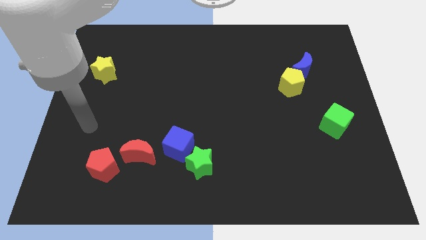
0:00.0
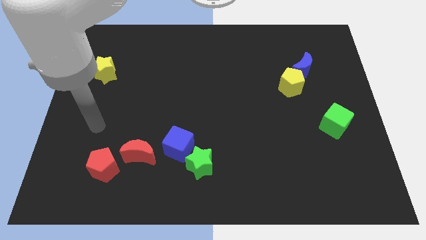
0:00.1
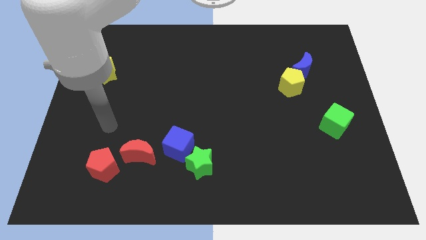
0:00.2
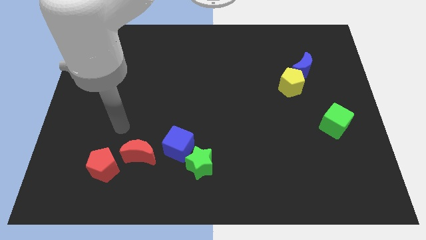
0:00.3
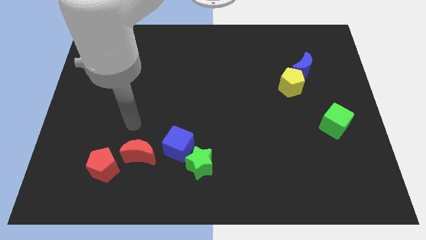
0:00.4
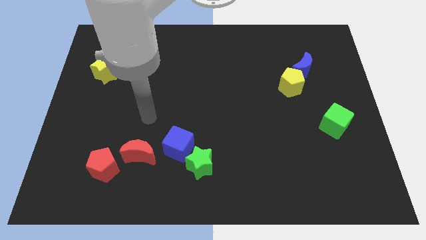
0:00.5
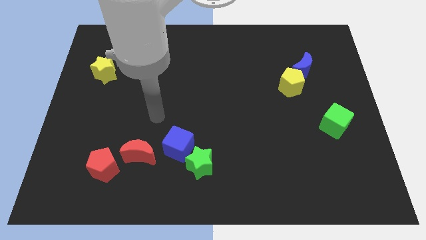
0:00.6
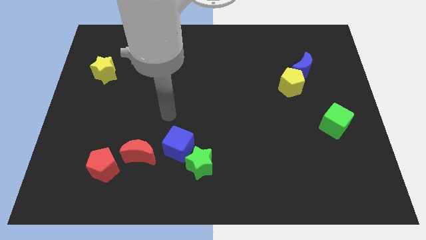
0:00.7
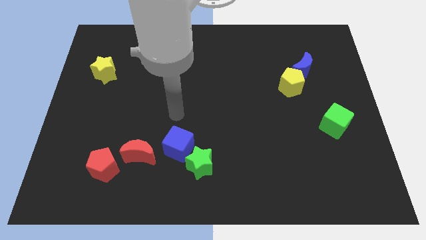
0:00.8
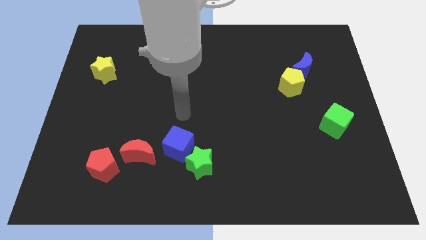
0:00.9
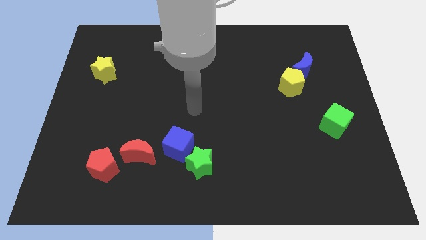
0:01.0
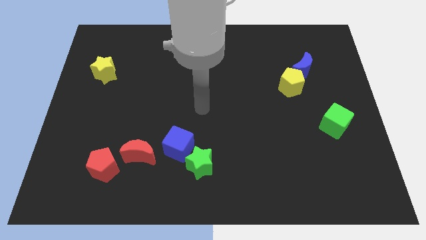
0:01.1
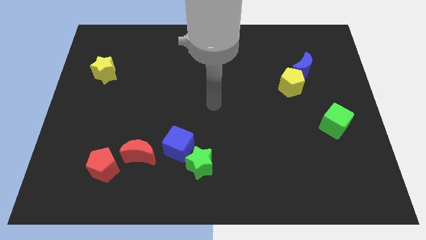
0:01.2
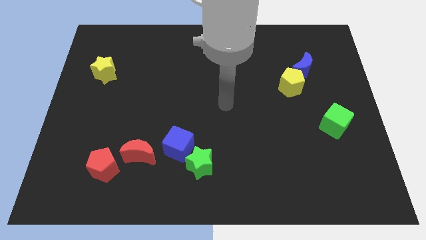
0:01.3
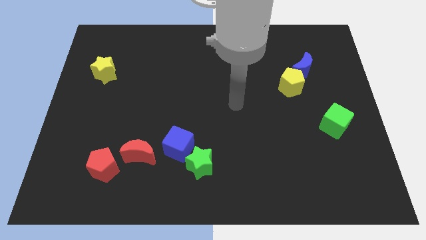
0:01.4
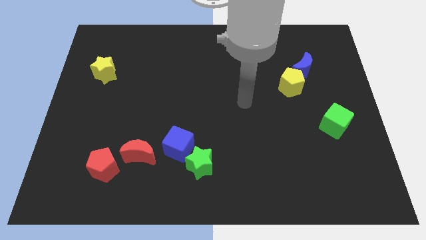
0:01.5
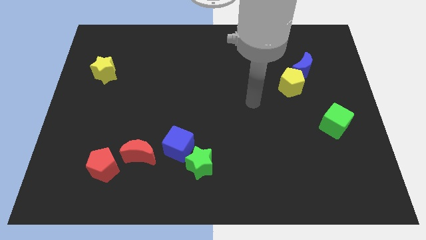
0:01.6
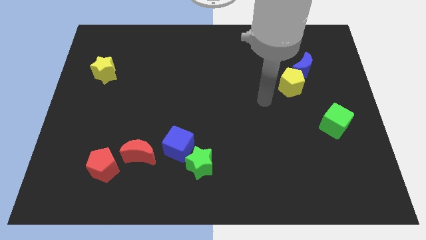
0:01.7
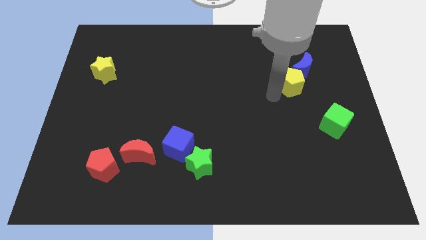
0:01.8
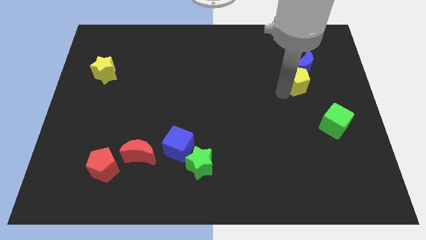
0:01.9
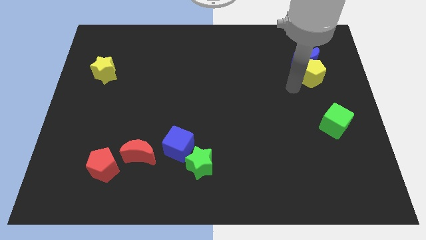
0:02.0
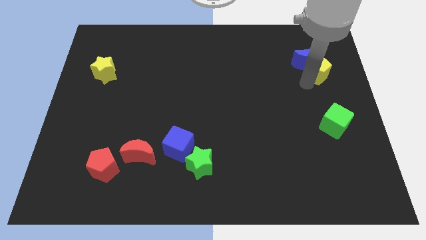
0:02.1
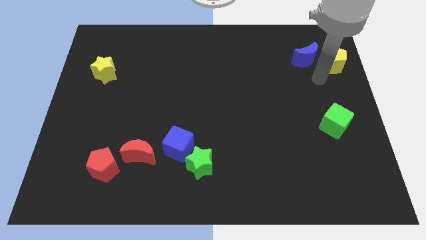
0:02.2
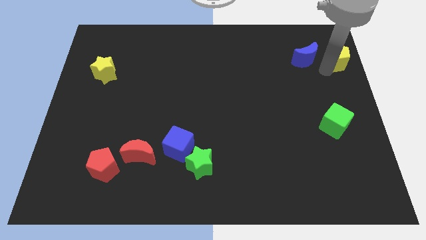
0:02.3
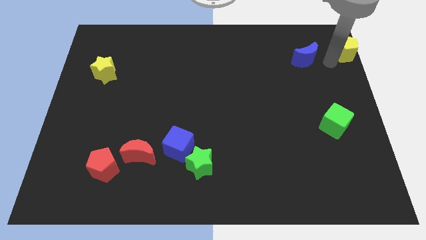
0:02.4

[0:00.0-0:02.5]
move the blue moon away from the yellow pentagon

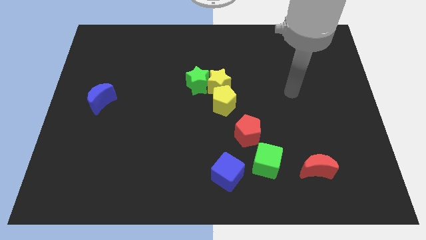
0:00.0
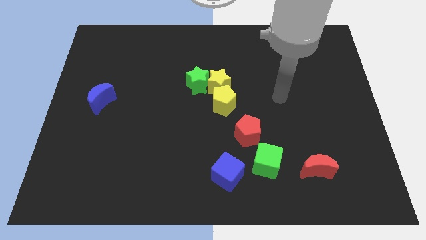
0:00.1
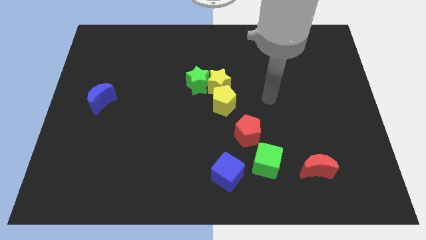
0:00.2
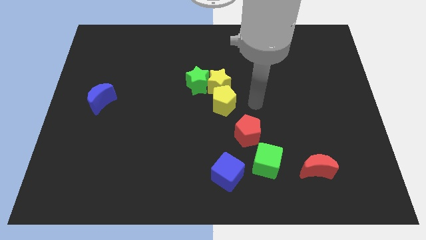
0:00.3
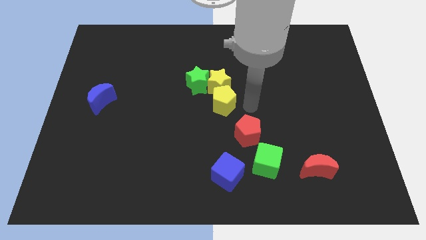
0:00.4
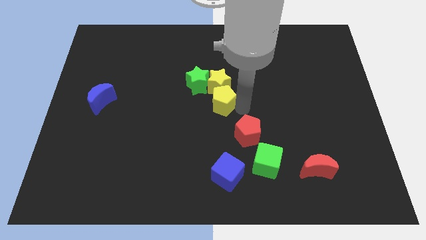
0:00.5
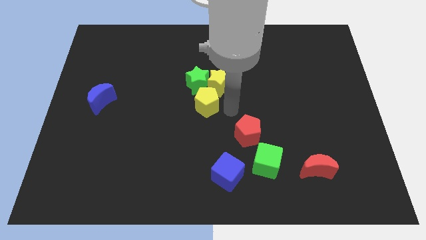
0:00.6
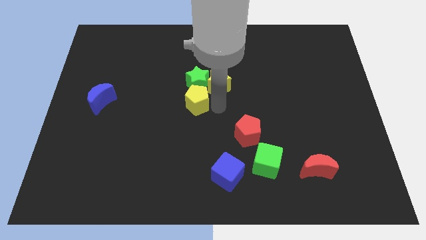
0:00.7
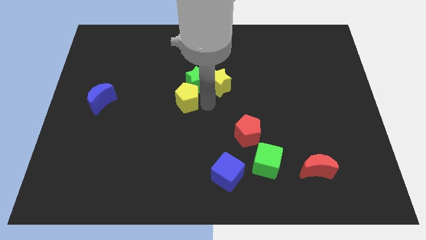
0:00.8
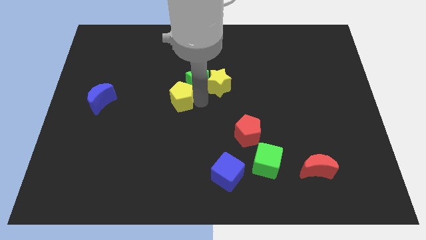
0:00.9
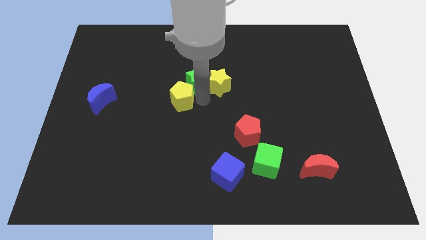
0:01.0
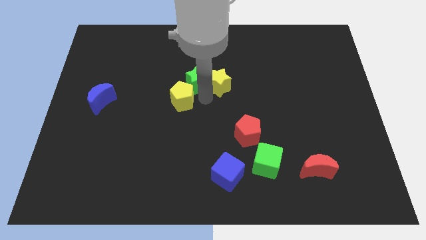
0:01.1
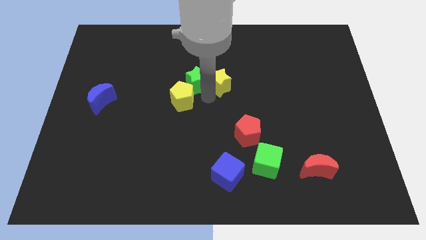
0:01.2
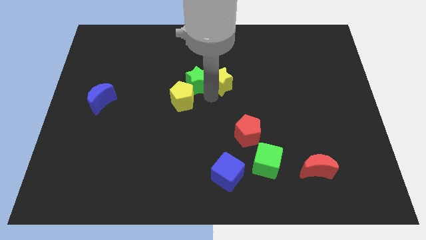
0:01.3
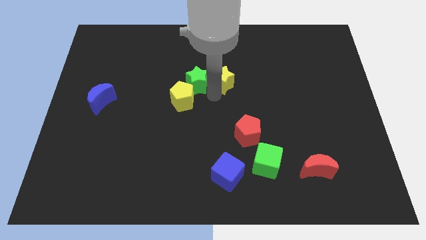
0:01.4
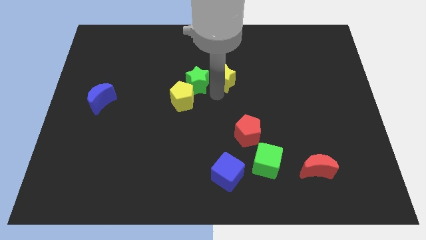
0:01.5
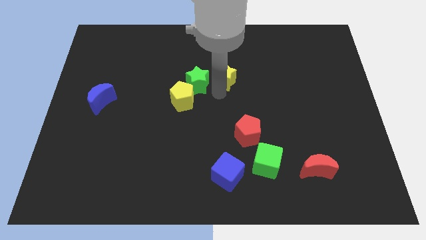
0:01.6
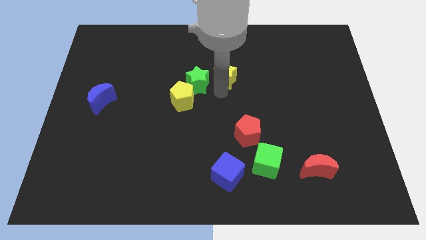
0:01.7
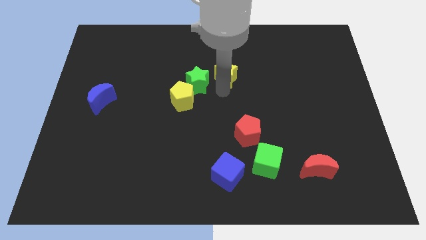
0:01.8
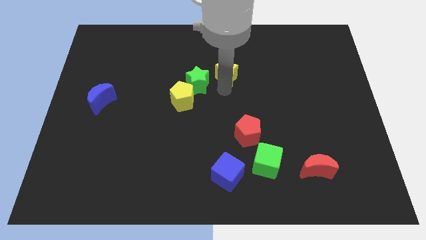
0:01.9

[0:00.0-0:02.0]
pull the yellow star apart from the green star and yellow pentagon

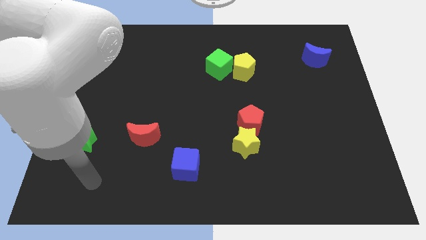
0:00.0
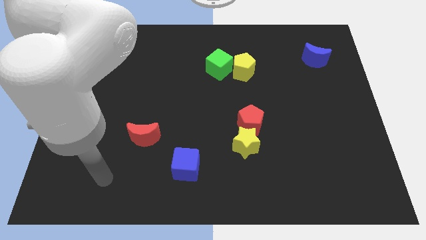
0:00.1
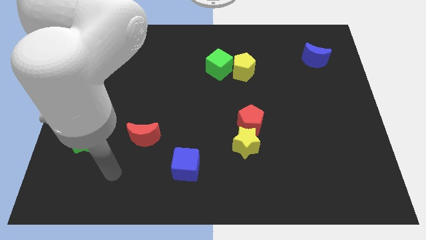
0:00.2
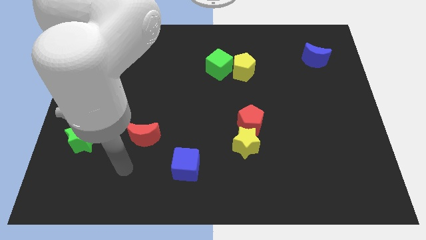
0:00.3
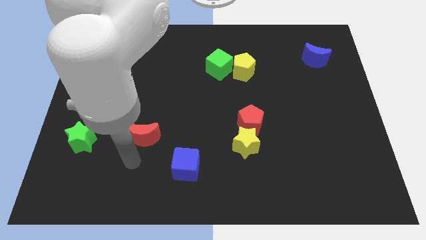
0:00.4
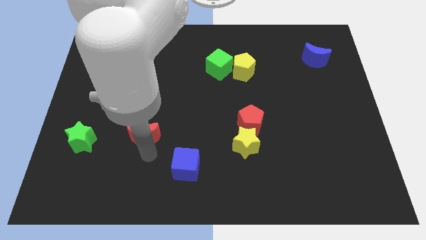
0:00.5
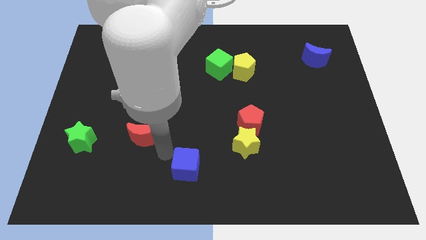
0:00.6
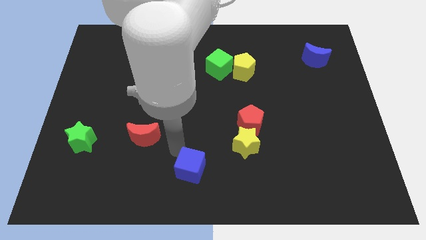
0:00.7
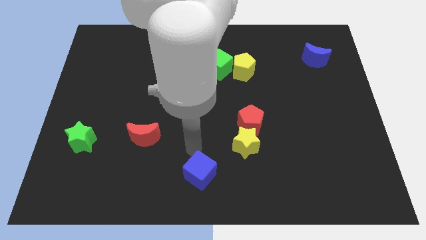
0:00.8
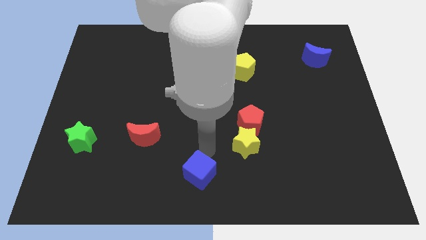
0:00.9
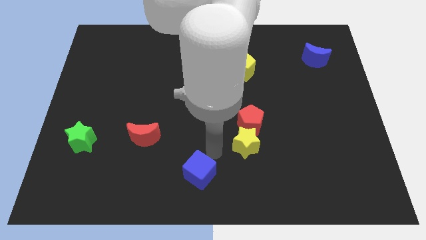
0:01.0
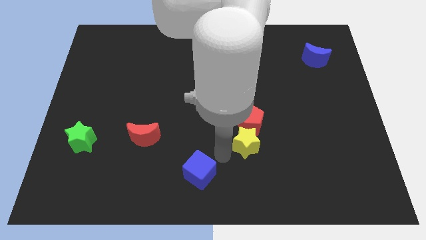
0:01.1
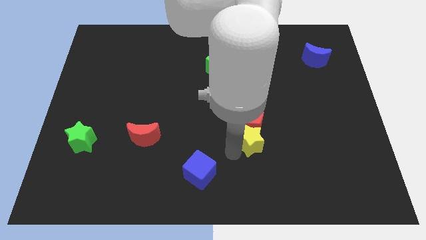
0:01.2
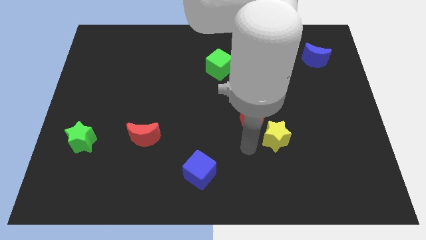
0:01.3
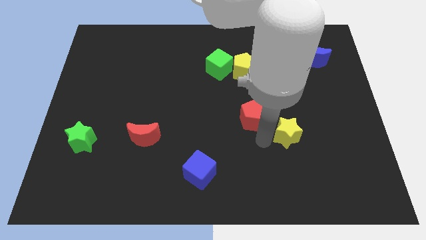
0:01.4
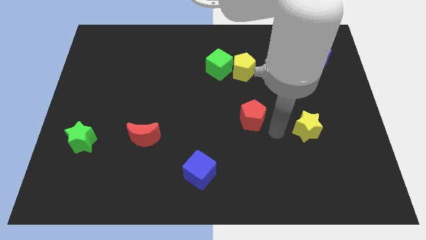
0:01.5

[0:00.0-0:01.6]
move the red pentagon away from the yellow star

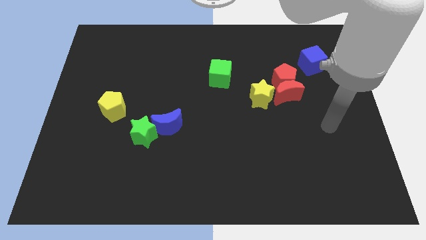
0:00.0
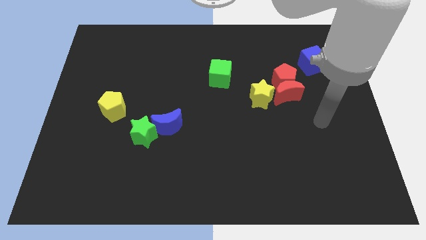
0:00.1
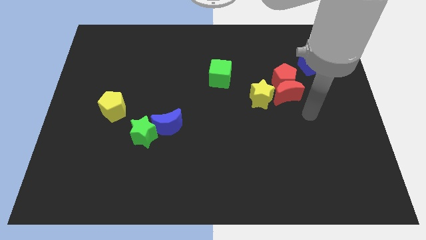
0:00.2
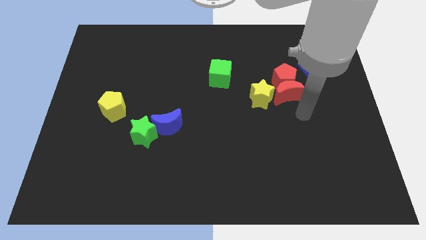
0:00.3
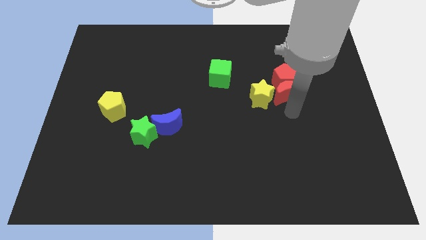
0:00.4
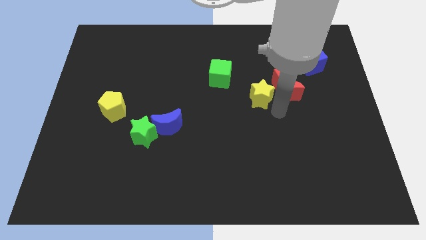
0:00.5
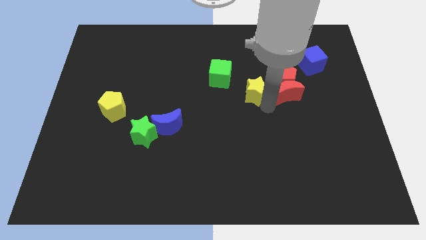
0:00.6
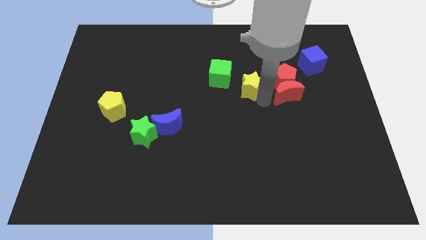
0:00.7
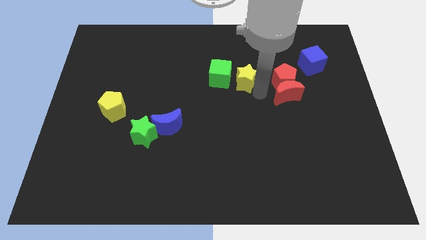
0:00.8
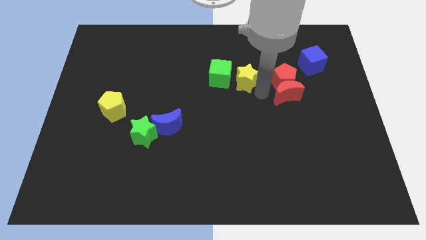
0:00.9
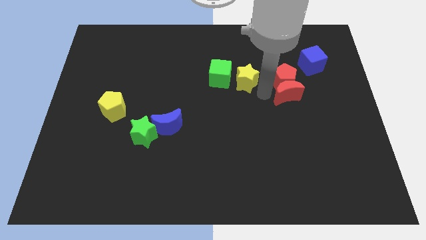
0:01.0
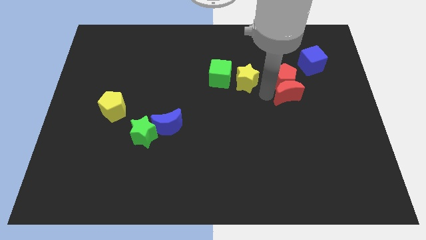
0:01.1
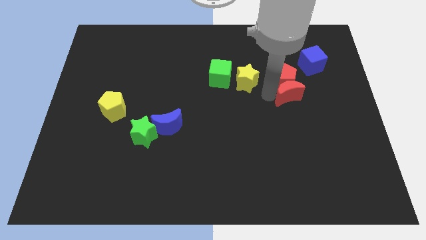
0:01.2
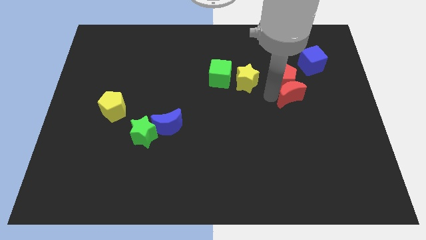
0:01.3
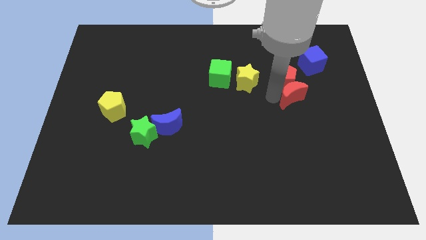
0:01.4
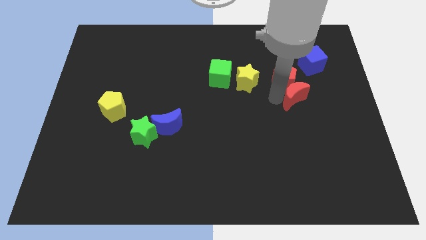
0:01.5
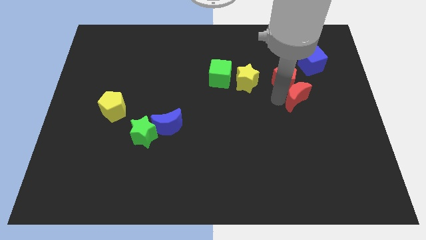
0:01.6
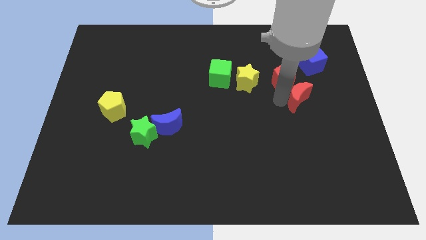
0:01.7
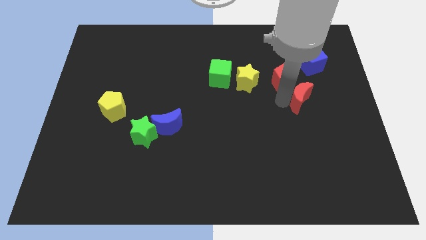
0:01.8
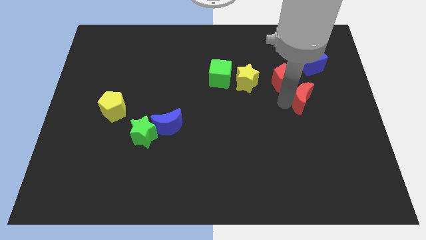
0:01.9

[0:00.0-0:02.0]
move the red moon away from the red pentagon and yellow star

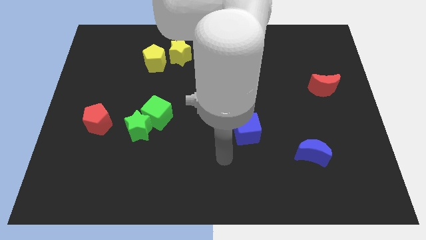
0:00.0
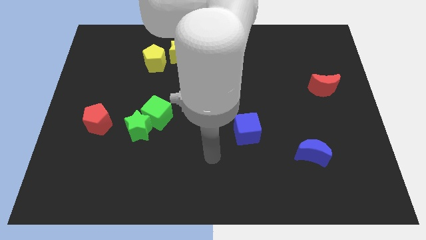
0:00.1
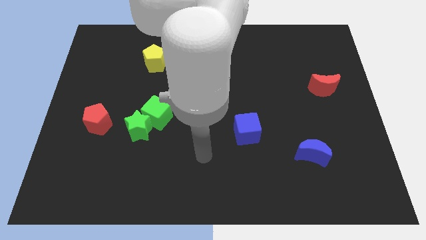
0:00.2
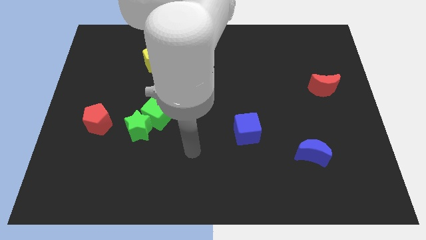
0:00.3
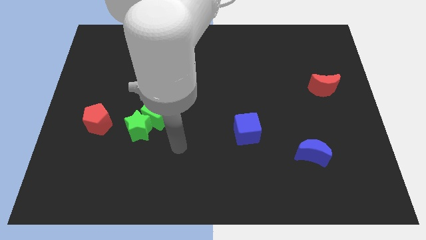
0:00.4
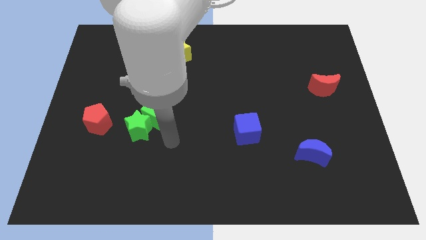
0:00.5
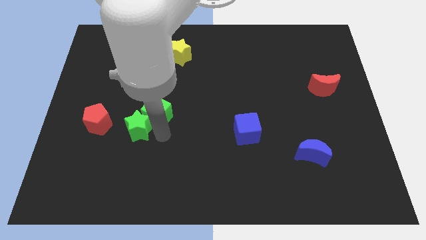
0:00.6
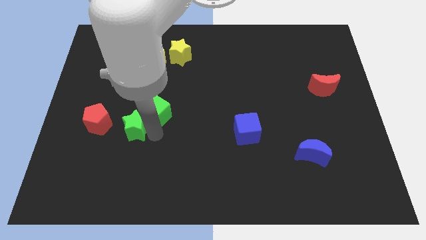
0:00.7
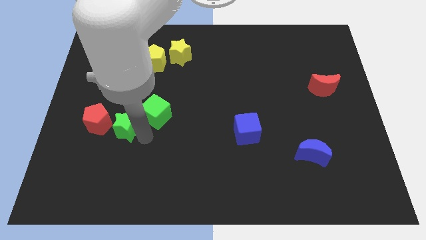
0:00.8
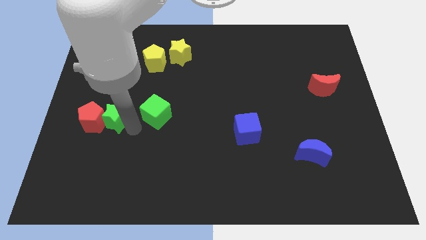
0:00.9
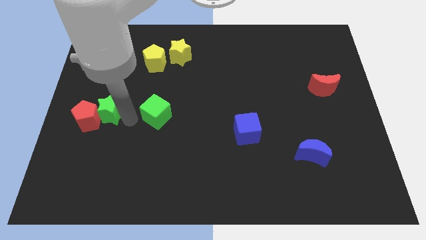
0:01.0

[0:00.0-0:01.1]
pull the green cube apart from the green star
